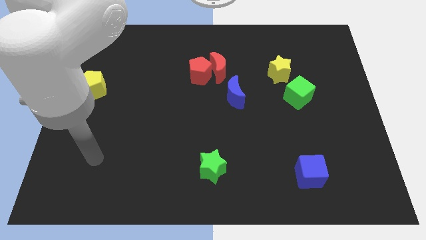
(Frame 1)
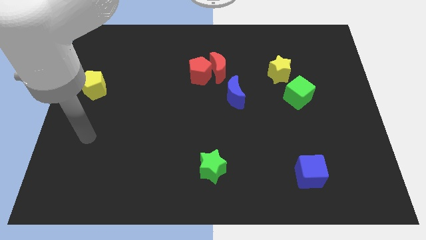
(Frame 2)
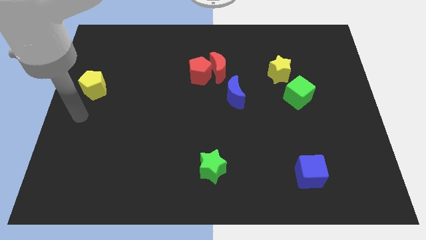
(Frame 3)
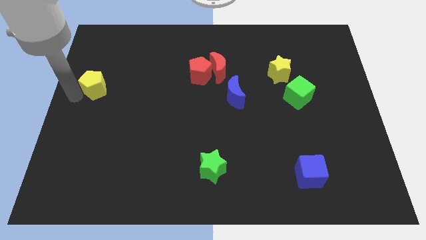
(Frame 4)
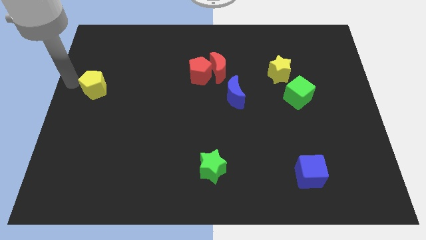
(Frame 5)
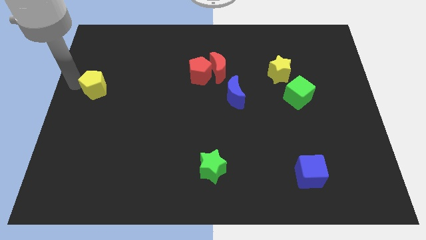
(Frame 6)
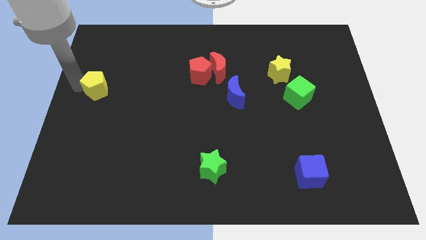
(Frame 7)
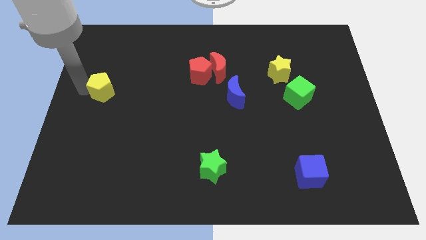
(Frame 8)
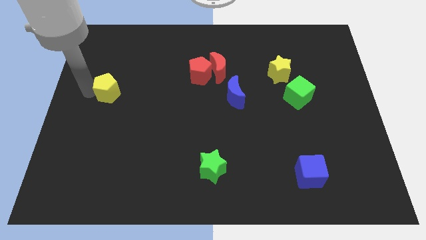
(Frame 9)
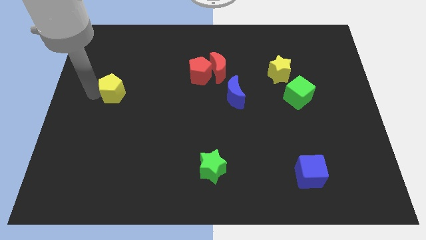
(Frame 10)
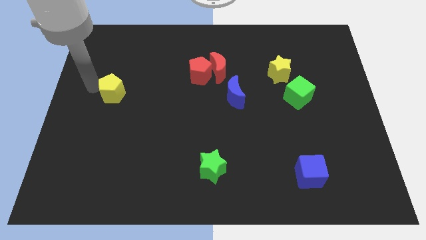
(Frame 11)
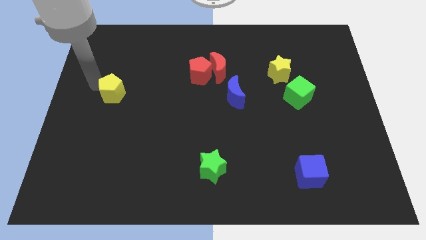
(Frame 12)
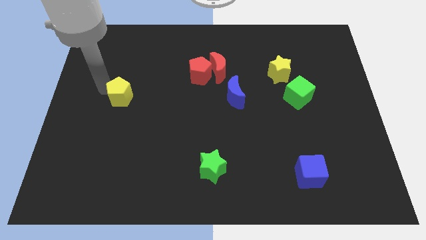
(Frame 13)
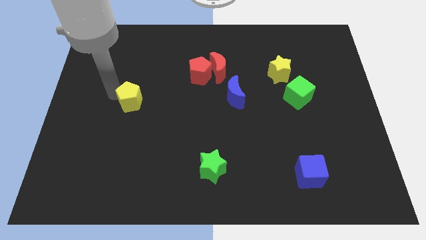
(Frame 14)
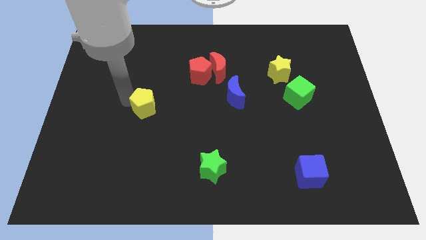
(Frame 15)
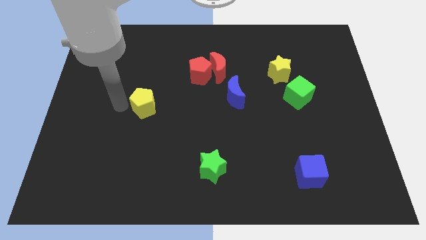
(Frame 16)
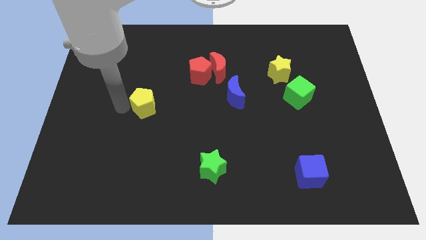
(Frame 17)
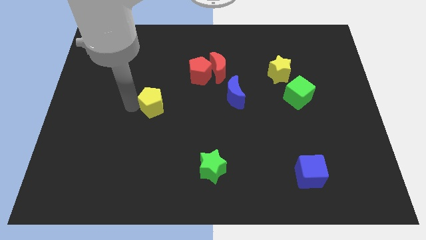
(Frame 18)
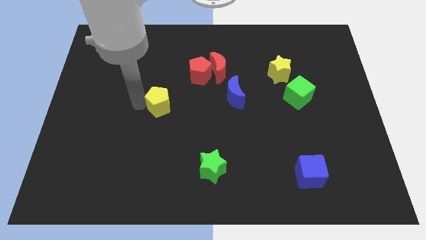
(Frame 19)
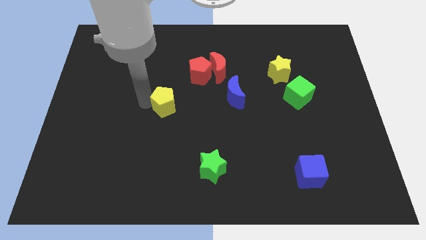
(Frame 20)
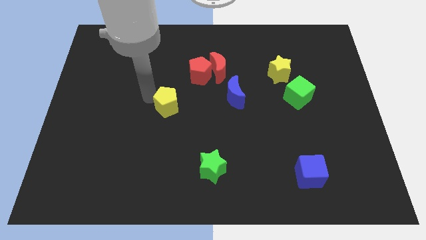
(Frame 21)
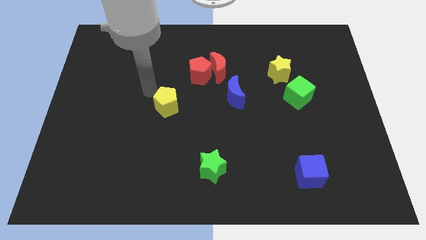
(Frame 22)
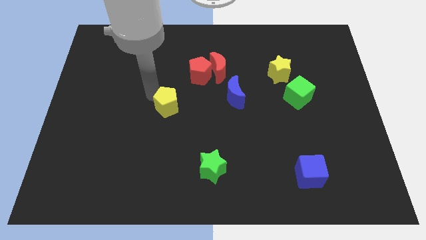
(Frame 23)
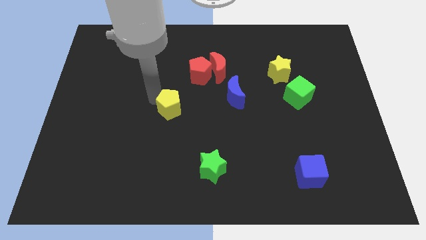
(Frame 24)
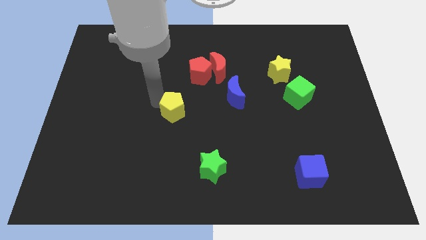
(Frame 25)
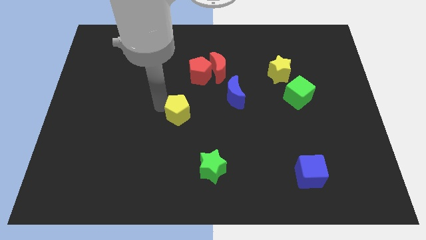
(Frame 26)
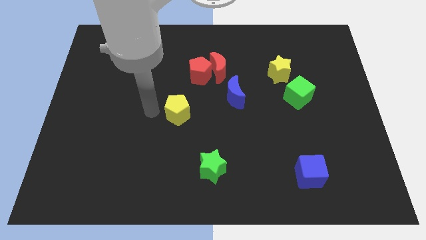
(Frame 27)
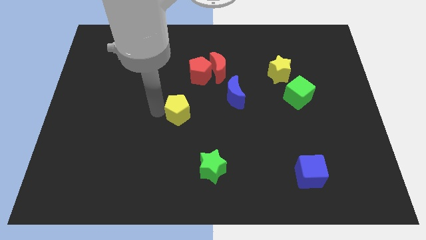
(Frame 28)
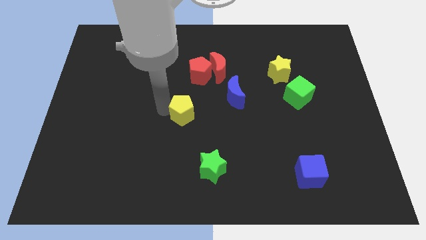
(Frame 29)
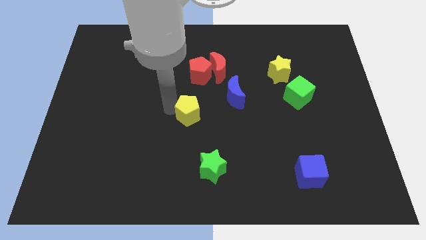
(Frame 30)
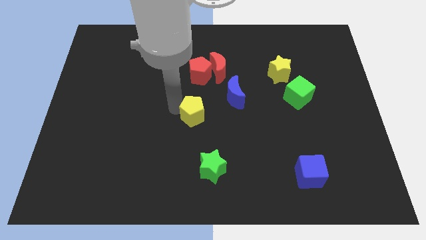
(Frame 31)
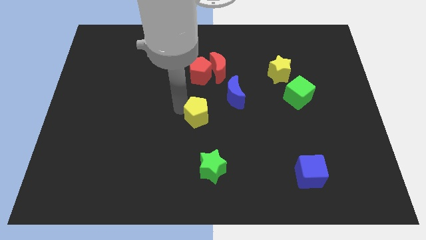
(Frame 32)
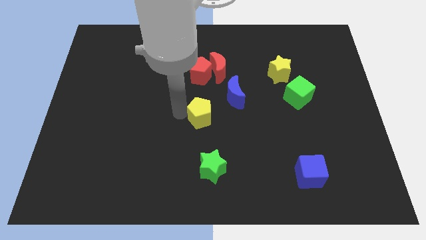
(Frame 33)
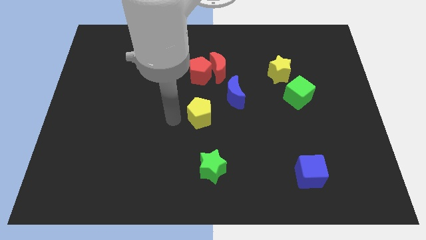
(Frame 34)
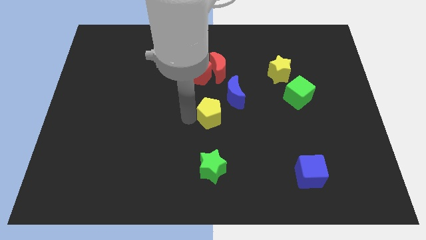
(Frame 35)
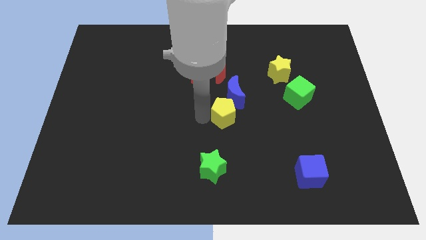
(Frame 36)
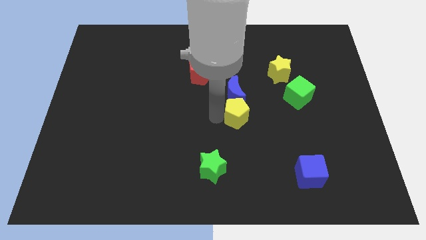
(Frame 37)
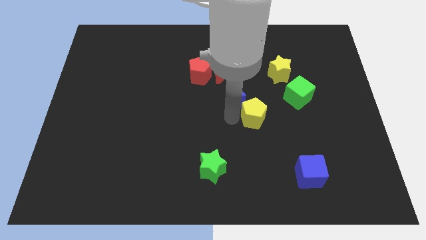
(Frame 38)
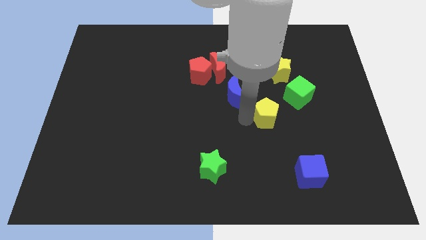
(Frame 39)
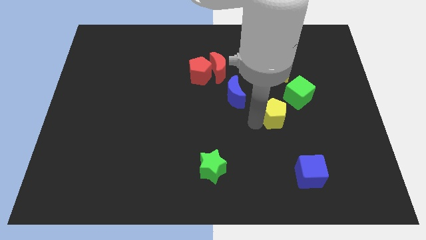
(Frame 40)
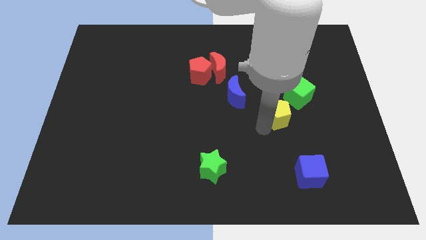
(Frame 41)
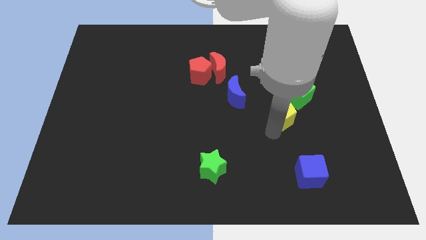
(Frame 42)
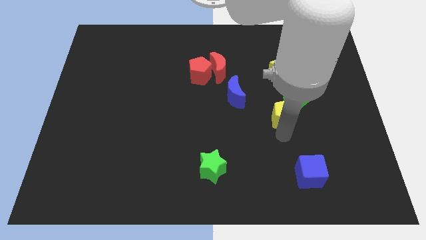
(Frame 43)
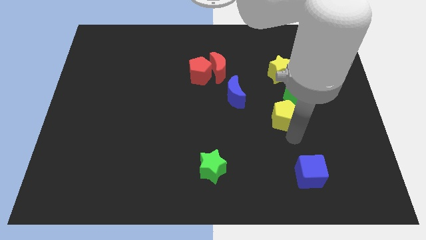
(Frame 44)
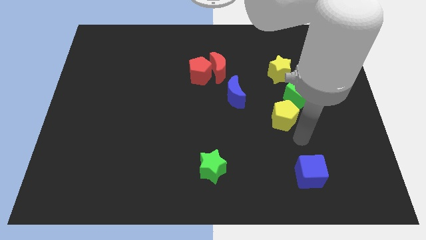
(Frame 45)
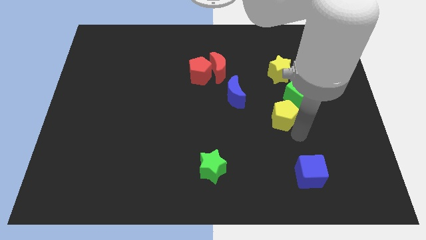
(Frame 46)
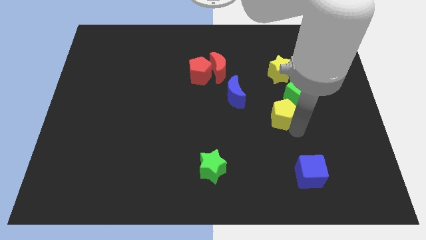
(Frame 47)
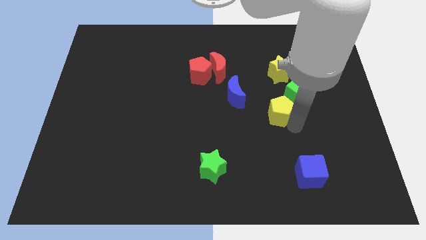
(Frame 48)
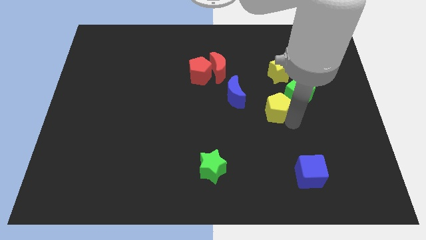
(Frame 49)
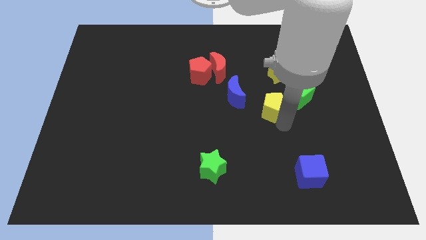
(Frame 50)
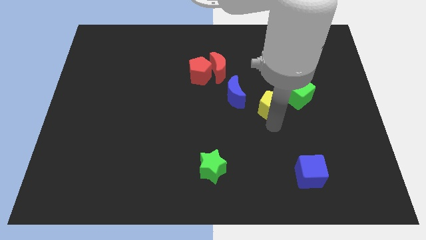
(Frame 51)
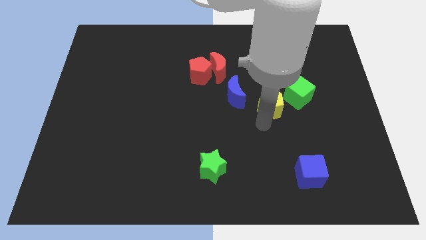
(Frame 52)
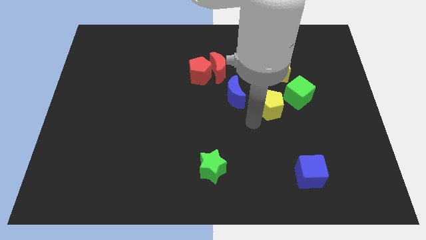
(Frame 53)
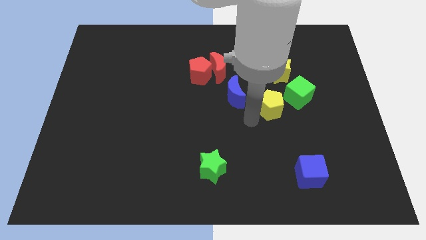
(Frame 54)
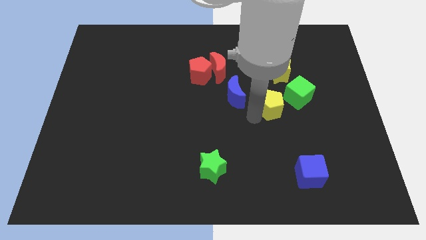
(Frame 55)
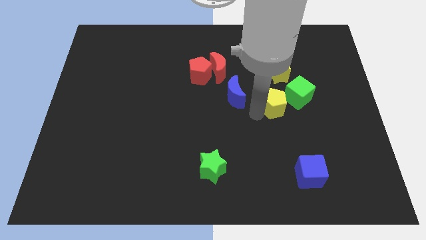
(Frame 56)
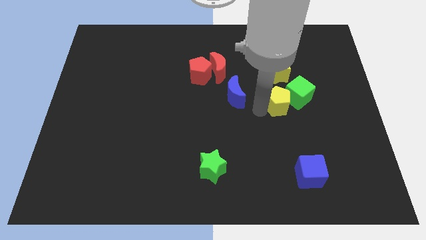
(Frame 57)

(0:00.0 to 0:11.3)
put the yellow pentagon to the green cube

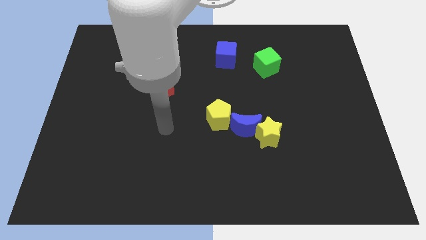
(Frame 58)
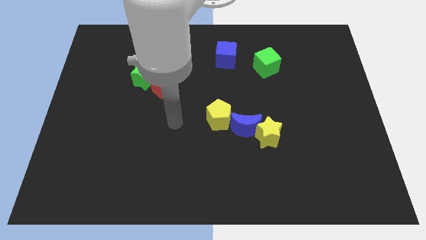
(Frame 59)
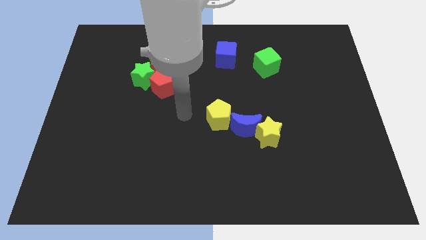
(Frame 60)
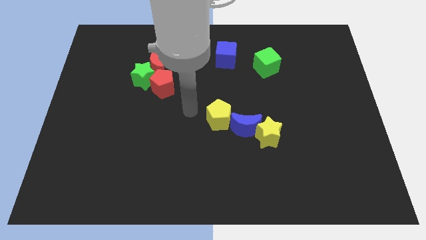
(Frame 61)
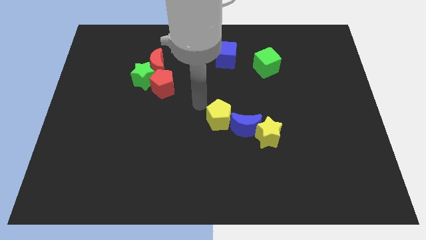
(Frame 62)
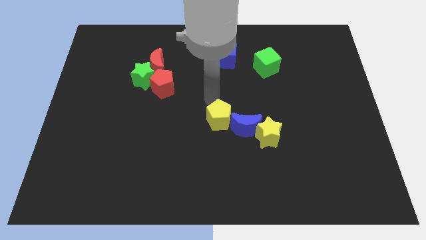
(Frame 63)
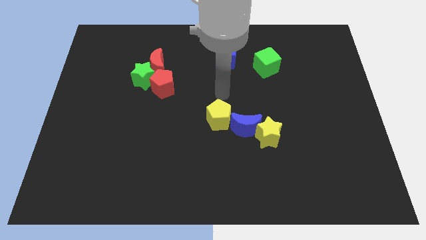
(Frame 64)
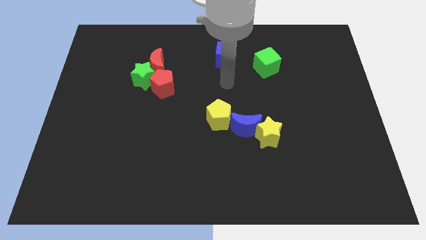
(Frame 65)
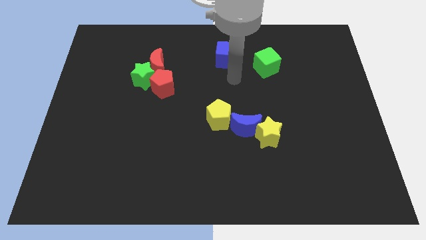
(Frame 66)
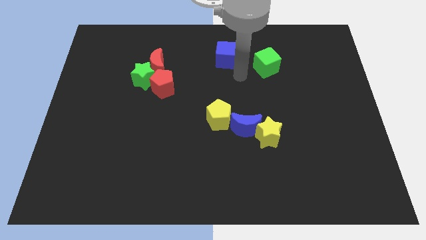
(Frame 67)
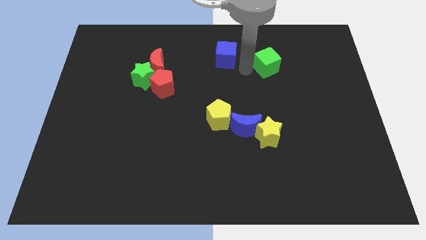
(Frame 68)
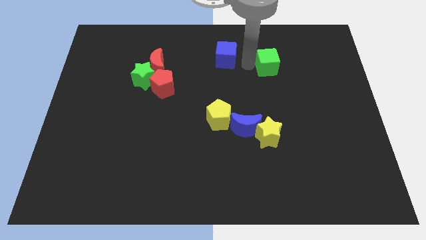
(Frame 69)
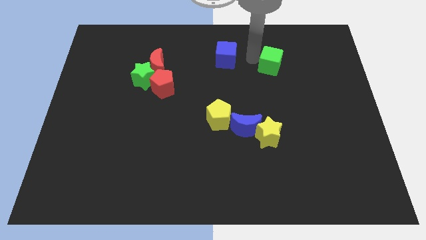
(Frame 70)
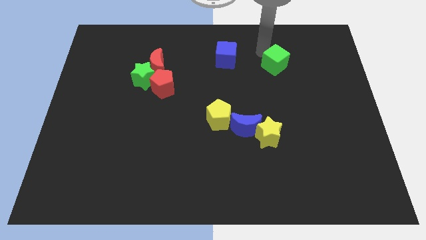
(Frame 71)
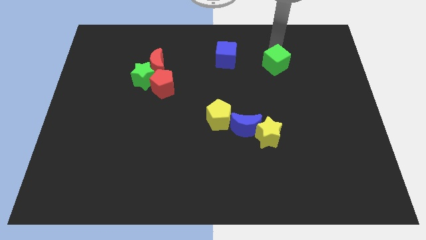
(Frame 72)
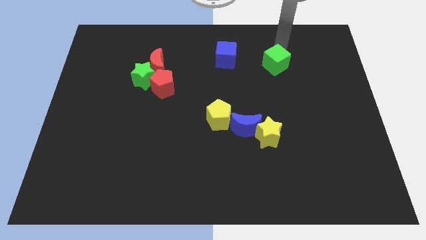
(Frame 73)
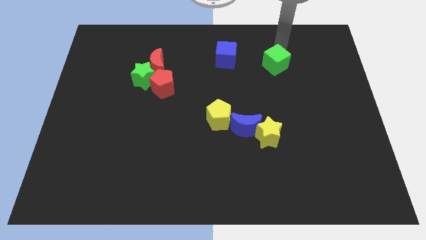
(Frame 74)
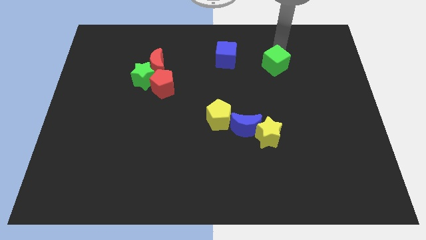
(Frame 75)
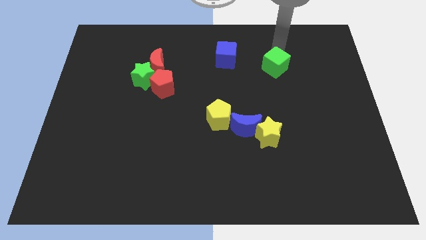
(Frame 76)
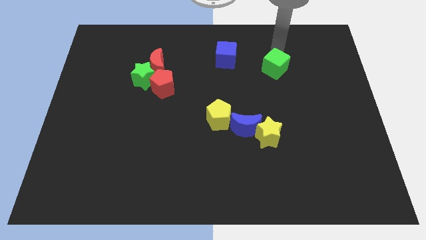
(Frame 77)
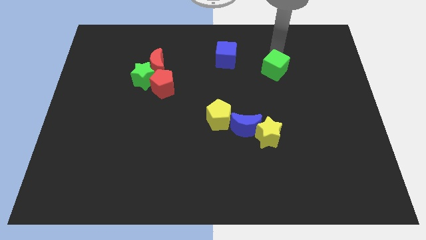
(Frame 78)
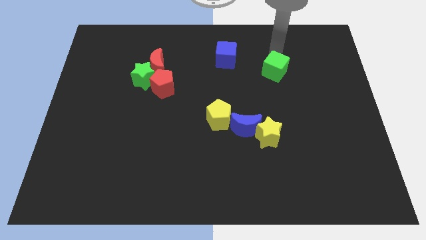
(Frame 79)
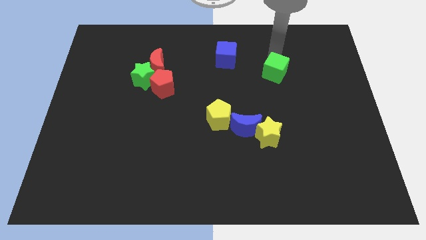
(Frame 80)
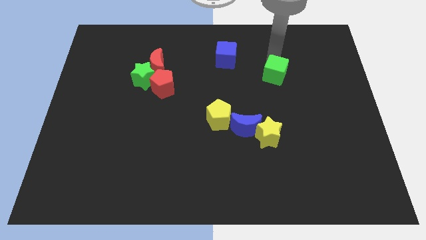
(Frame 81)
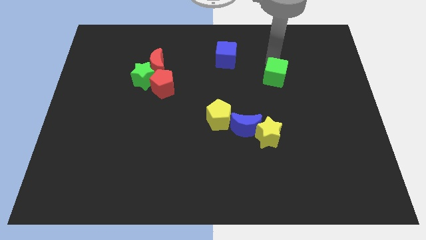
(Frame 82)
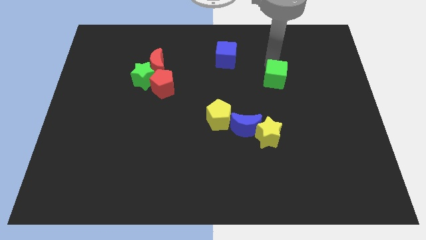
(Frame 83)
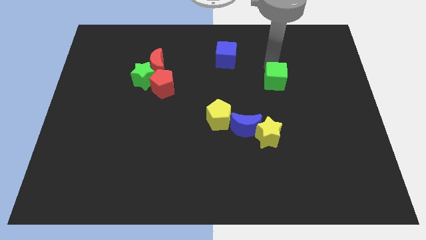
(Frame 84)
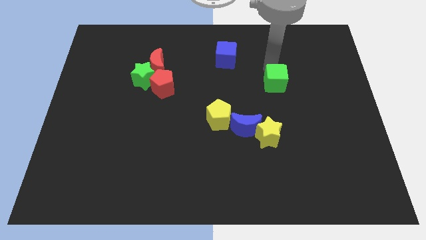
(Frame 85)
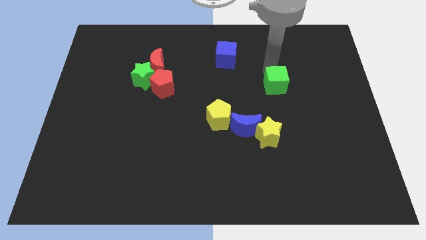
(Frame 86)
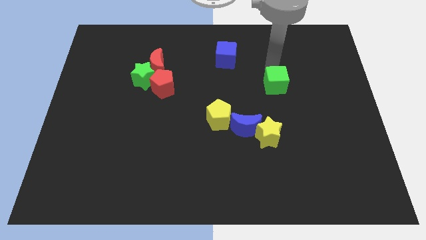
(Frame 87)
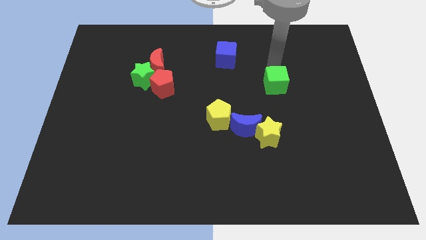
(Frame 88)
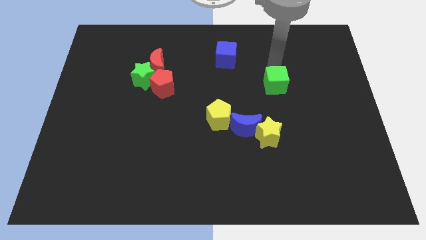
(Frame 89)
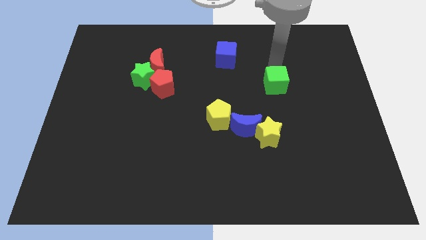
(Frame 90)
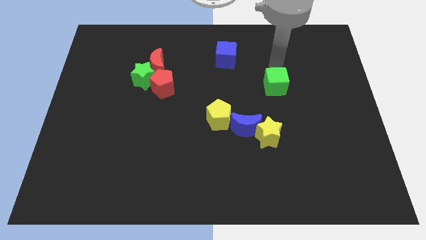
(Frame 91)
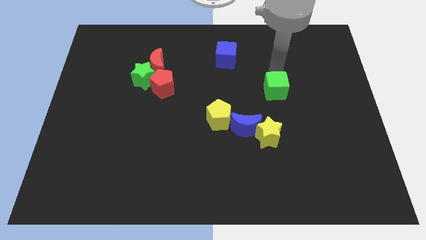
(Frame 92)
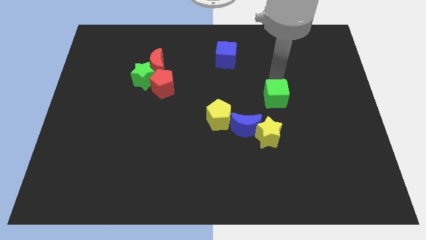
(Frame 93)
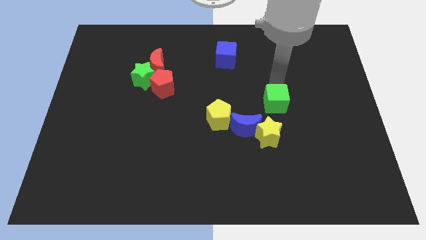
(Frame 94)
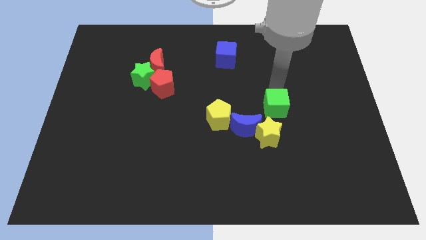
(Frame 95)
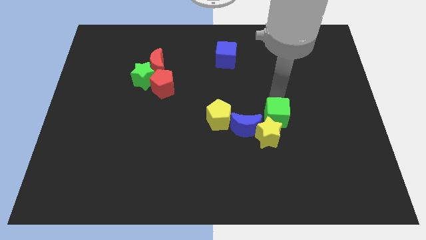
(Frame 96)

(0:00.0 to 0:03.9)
move the green cube next to the yellow star
